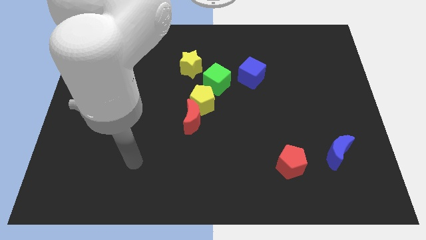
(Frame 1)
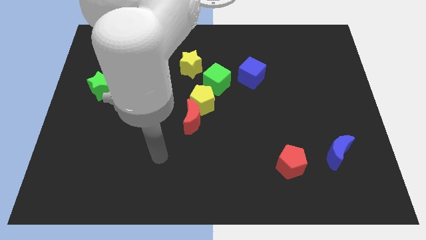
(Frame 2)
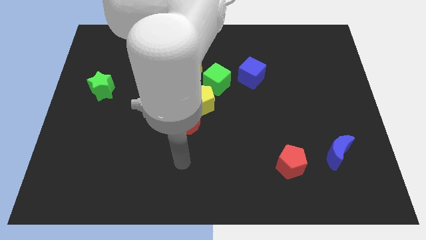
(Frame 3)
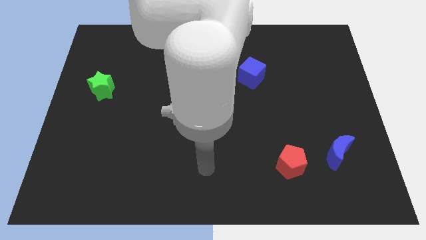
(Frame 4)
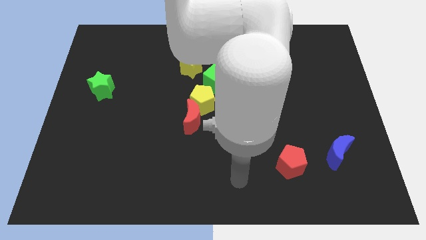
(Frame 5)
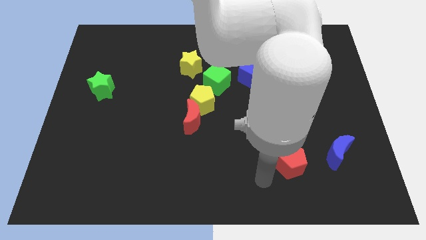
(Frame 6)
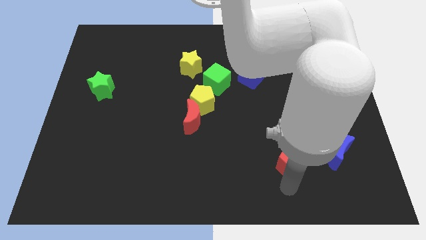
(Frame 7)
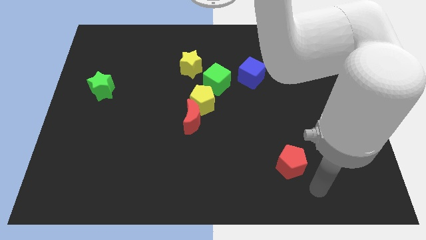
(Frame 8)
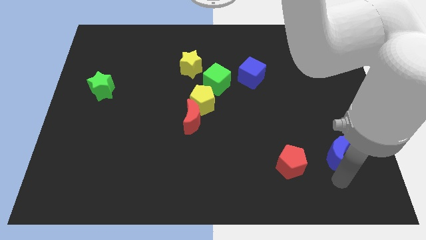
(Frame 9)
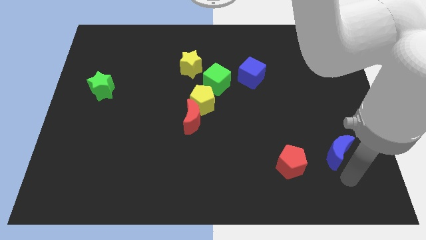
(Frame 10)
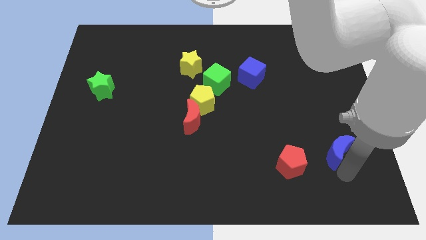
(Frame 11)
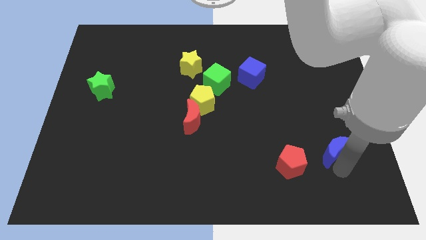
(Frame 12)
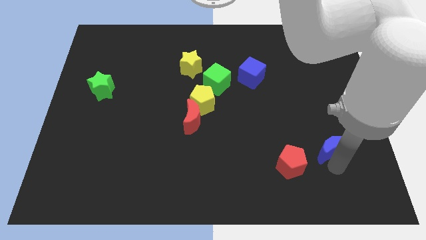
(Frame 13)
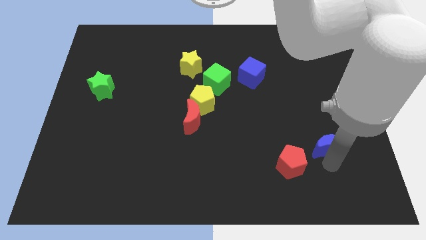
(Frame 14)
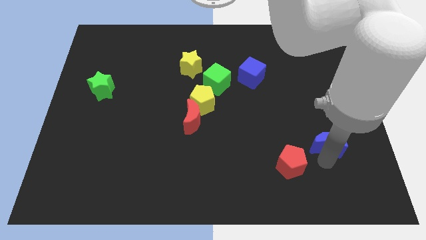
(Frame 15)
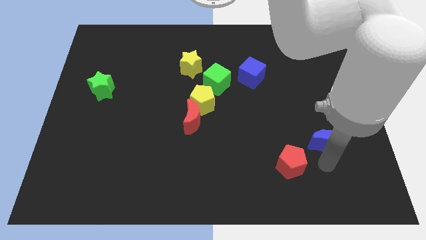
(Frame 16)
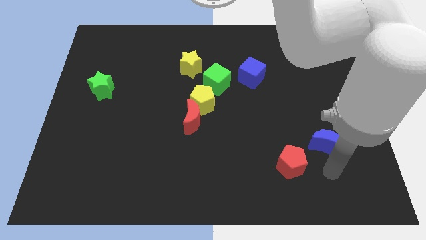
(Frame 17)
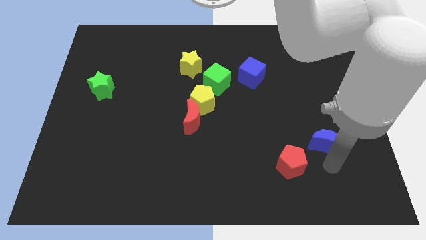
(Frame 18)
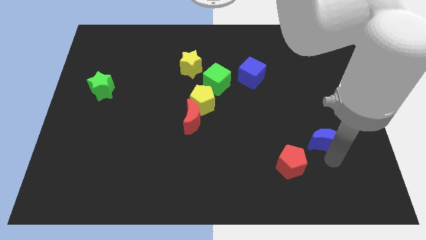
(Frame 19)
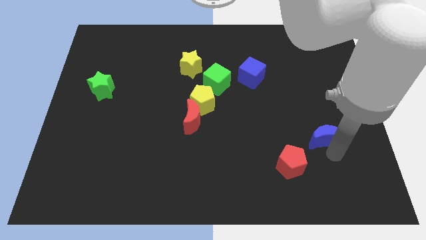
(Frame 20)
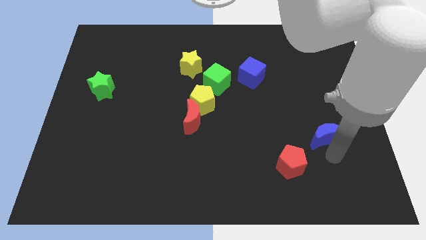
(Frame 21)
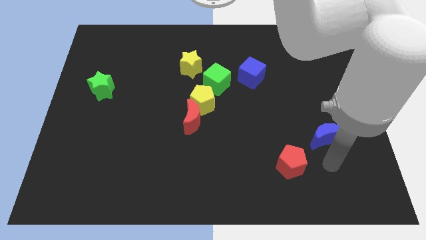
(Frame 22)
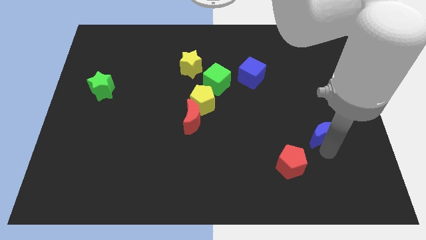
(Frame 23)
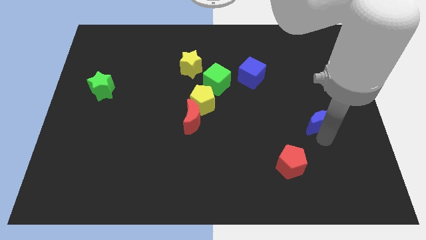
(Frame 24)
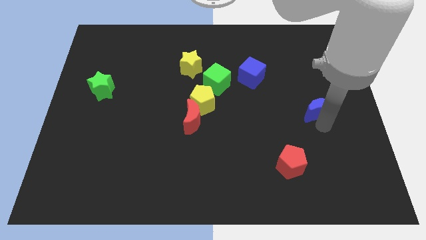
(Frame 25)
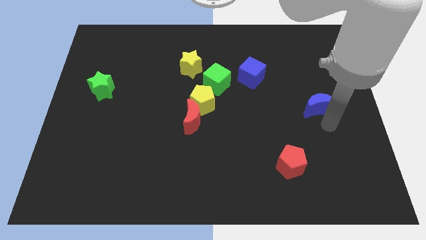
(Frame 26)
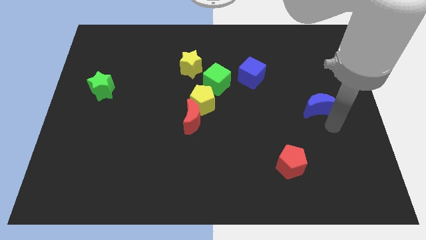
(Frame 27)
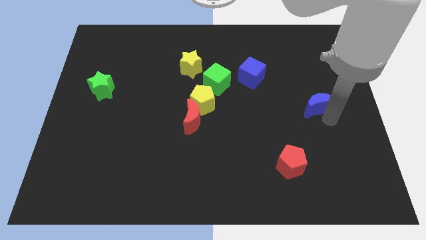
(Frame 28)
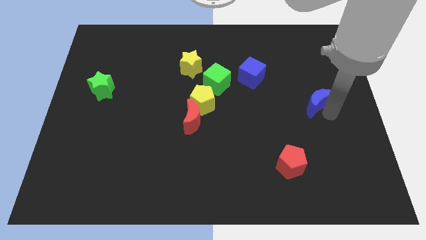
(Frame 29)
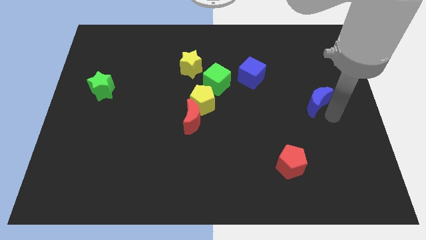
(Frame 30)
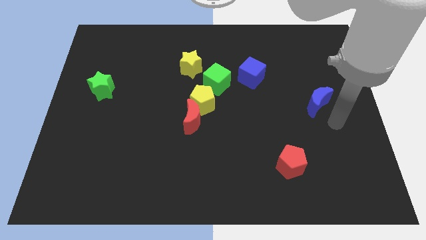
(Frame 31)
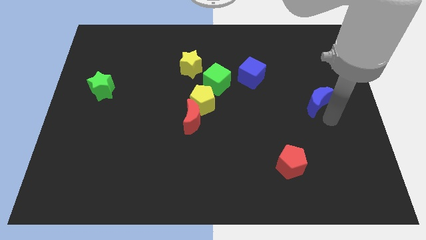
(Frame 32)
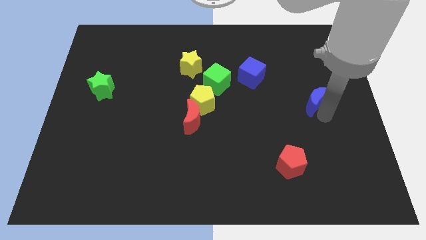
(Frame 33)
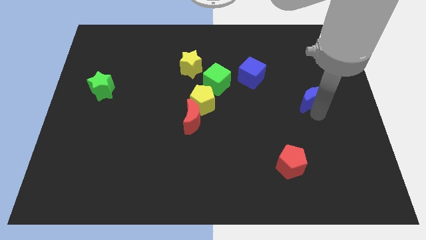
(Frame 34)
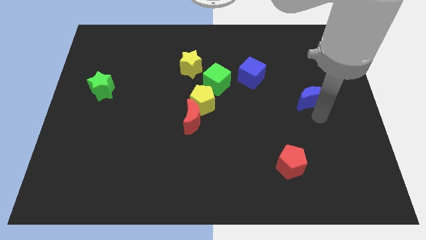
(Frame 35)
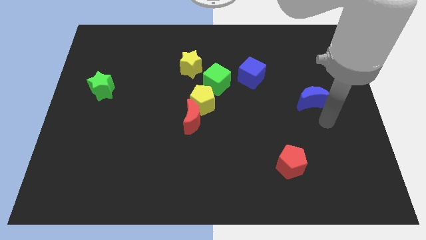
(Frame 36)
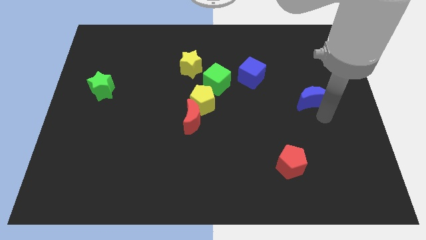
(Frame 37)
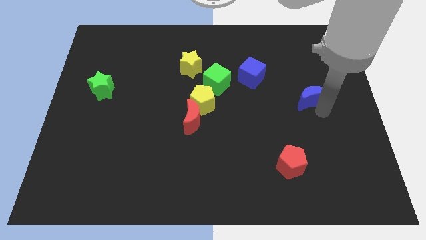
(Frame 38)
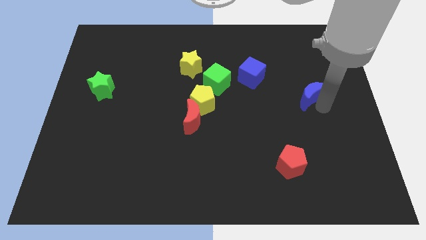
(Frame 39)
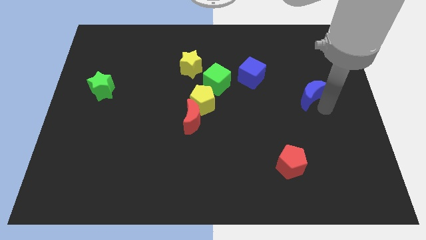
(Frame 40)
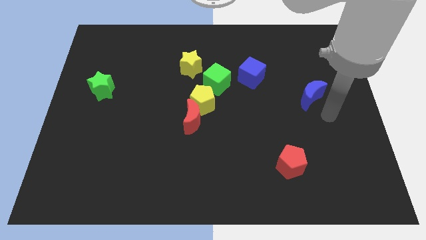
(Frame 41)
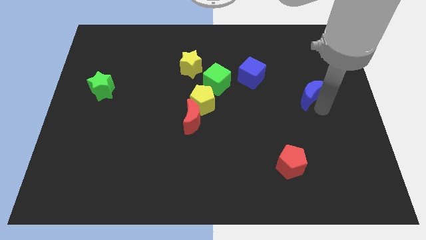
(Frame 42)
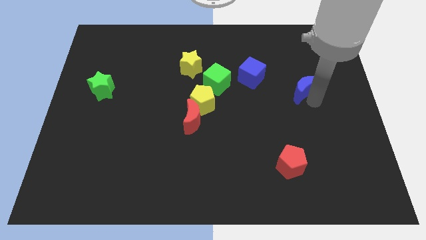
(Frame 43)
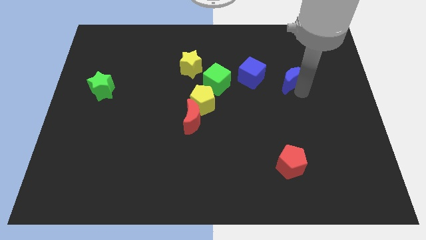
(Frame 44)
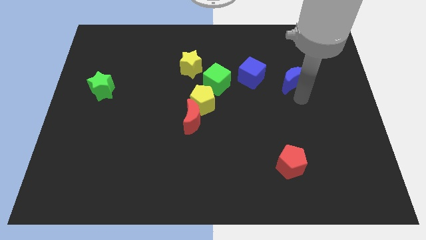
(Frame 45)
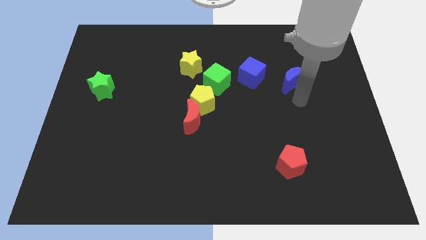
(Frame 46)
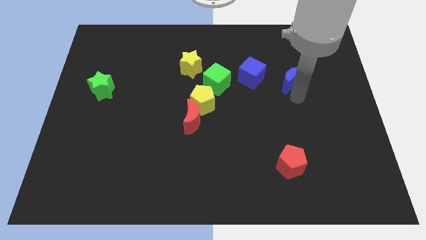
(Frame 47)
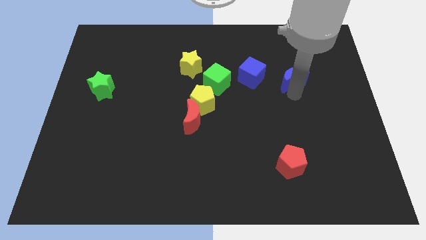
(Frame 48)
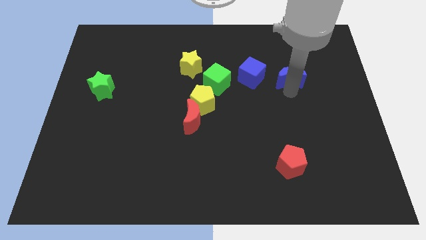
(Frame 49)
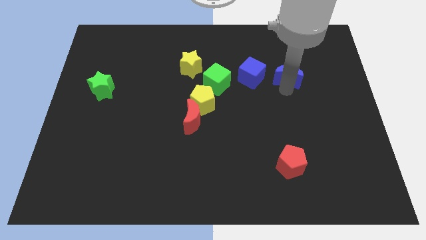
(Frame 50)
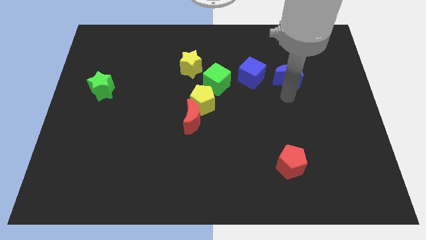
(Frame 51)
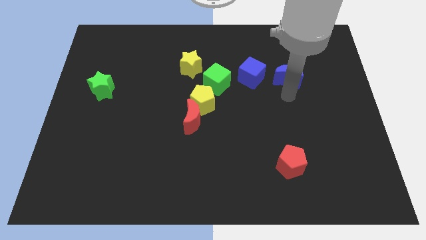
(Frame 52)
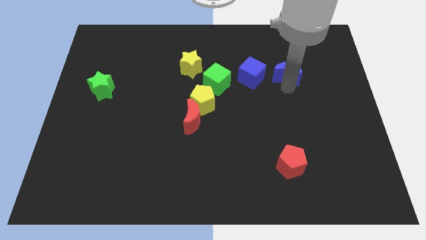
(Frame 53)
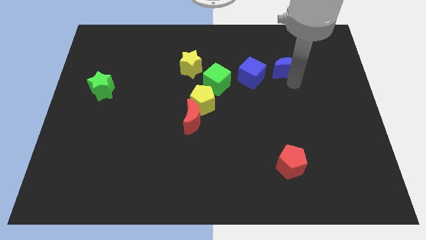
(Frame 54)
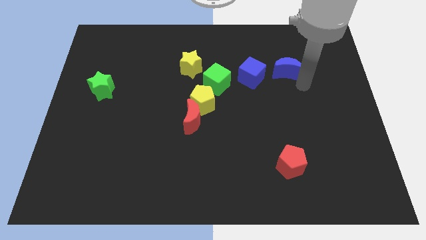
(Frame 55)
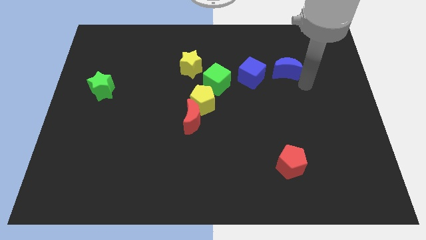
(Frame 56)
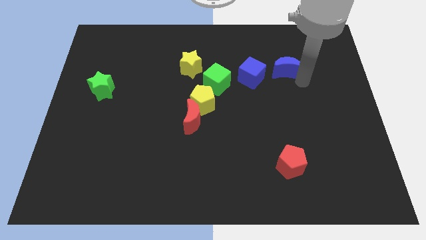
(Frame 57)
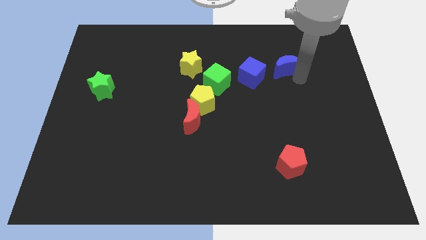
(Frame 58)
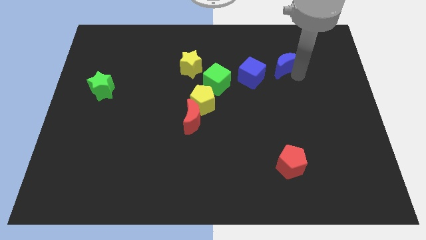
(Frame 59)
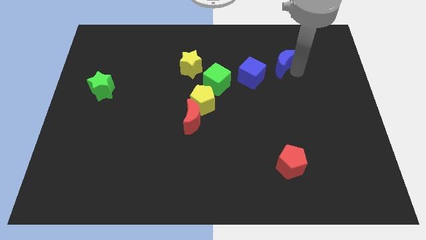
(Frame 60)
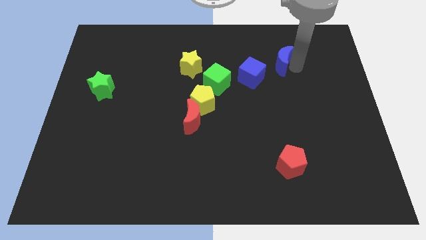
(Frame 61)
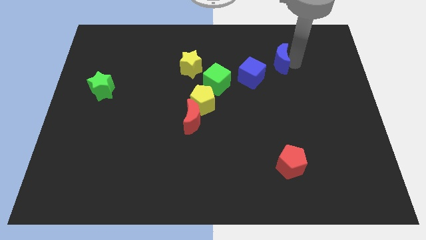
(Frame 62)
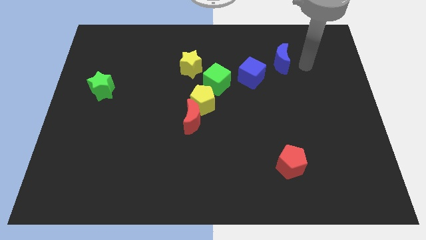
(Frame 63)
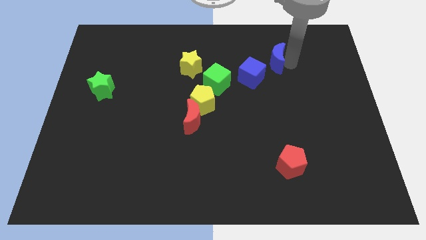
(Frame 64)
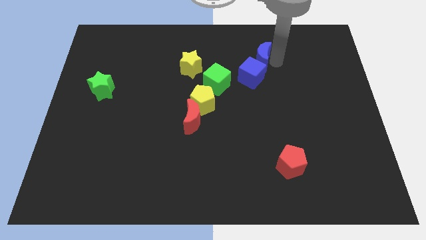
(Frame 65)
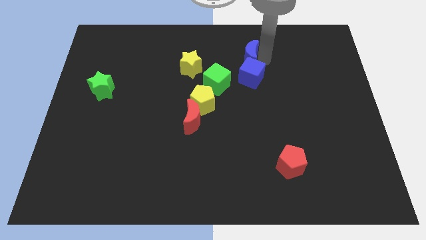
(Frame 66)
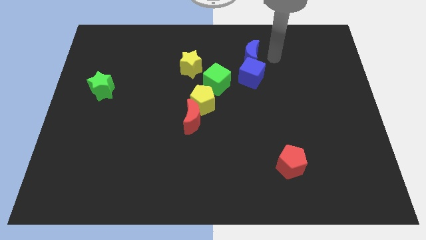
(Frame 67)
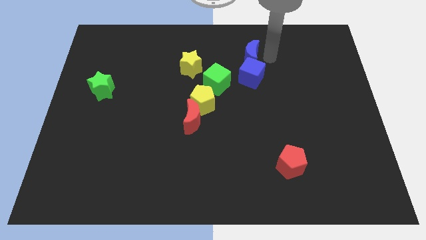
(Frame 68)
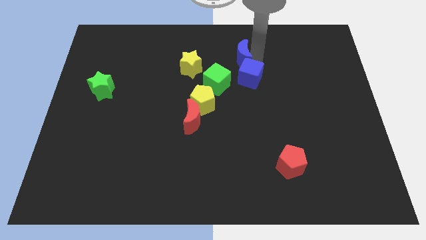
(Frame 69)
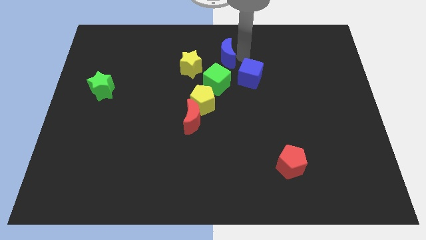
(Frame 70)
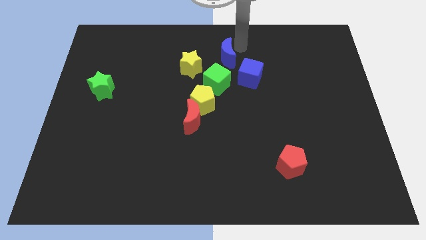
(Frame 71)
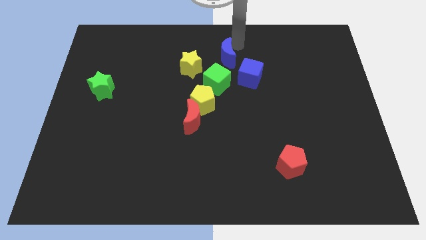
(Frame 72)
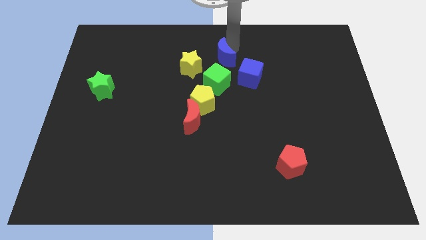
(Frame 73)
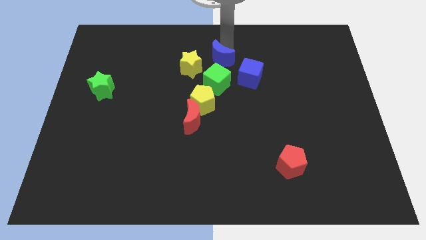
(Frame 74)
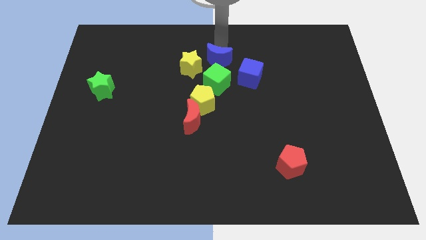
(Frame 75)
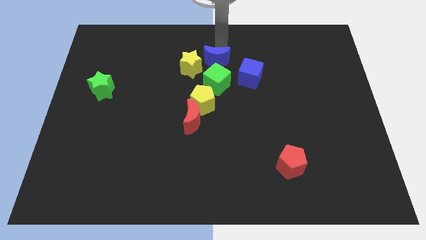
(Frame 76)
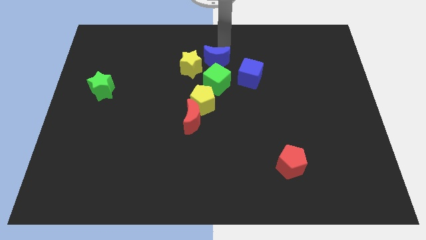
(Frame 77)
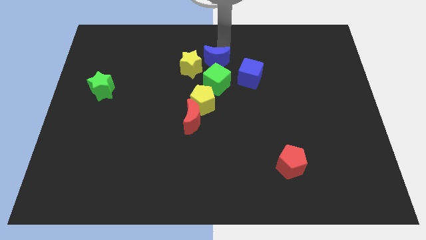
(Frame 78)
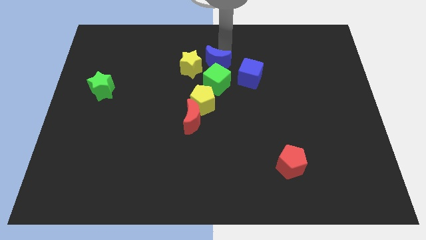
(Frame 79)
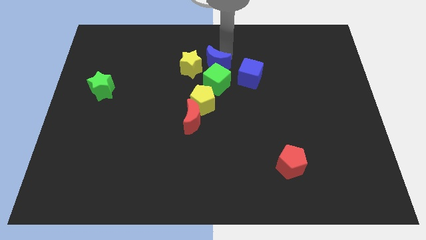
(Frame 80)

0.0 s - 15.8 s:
slide the blue moon left of the blue cube
